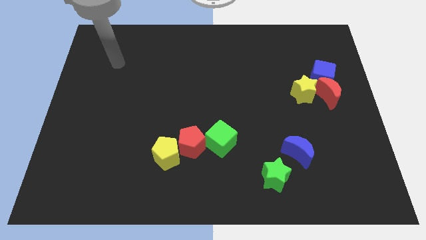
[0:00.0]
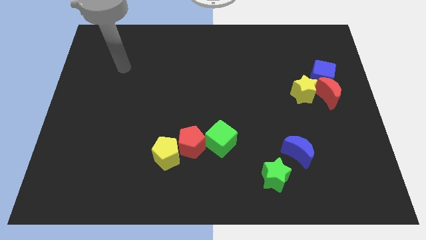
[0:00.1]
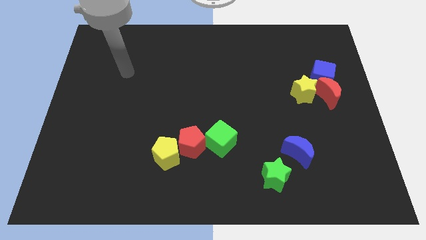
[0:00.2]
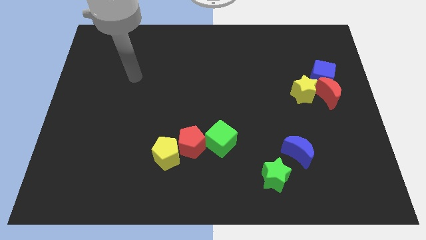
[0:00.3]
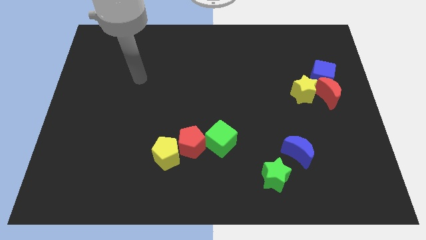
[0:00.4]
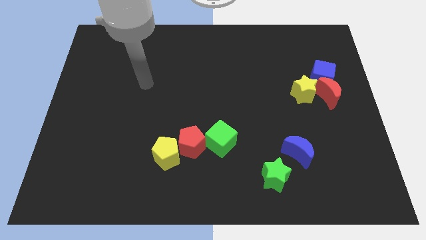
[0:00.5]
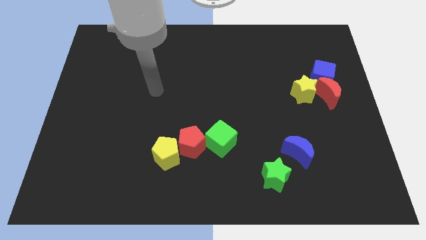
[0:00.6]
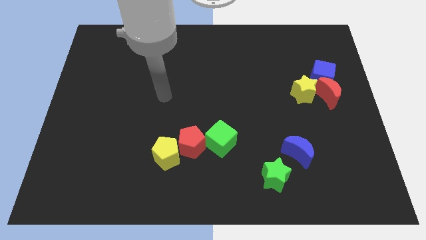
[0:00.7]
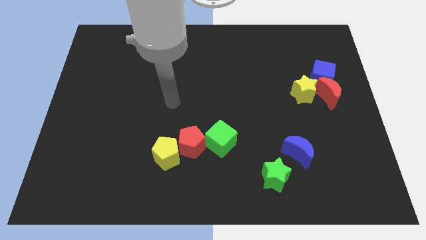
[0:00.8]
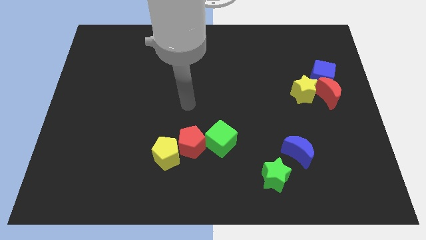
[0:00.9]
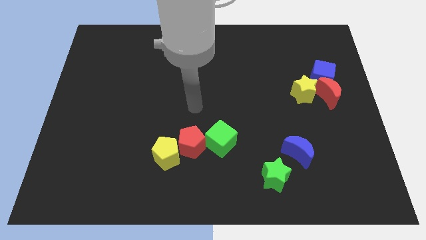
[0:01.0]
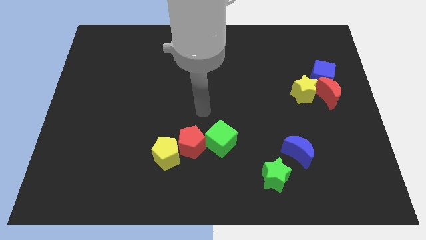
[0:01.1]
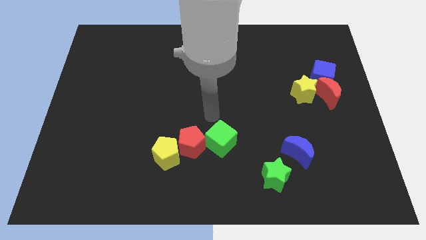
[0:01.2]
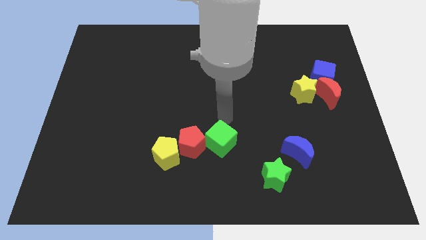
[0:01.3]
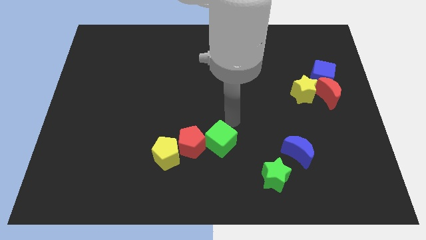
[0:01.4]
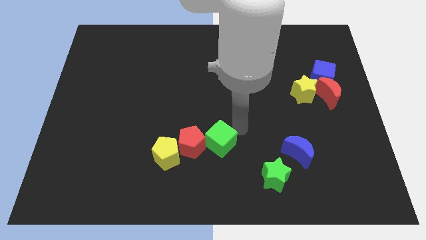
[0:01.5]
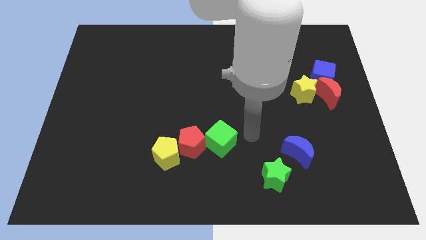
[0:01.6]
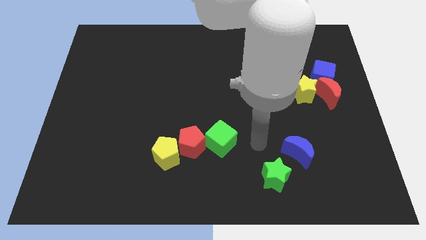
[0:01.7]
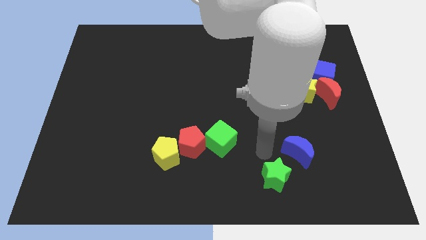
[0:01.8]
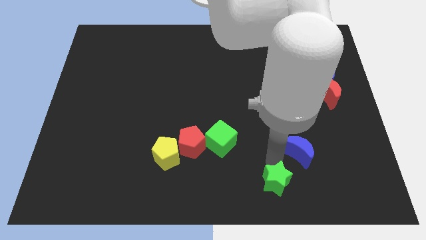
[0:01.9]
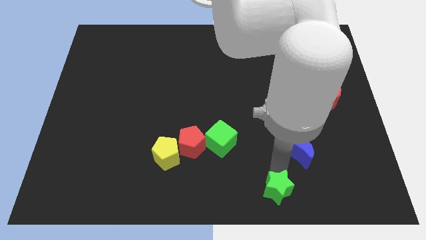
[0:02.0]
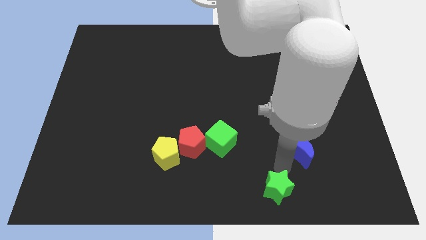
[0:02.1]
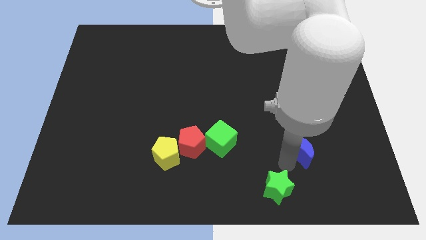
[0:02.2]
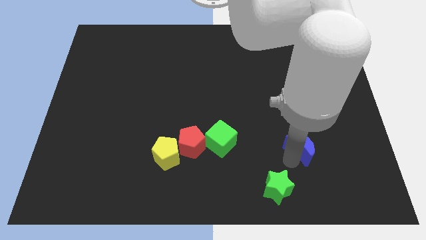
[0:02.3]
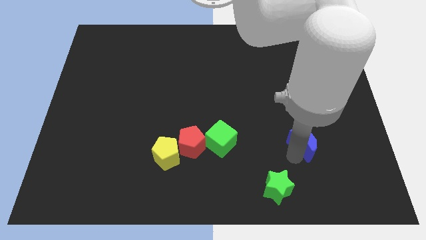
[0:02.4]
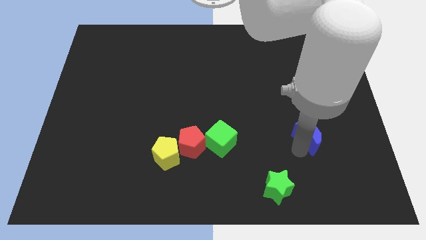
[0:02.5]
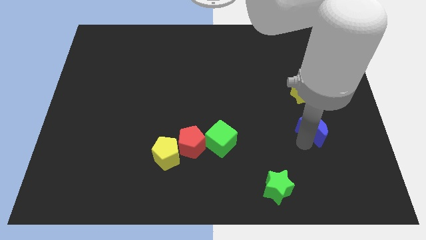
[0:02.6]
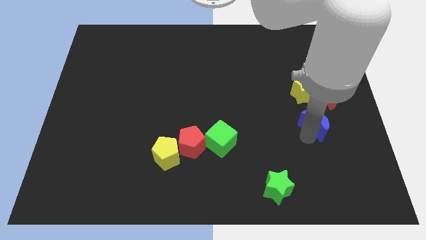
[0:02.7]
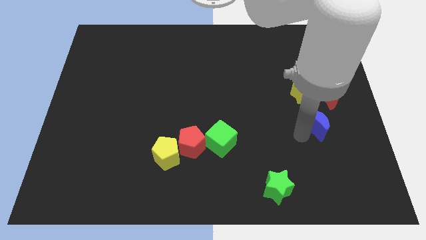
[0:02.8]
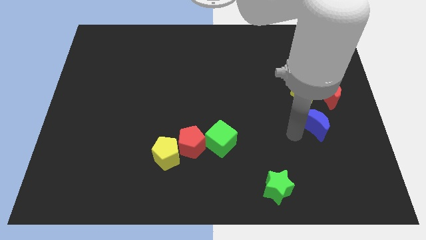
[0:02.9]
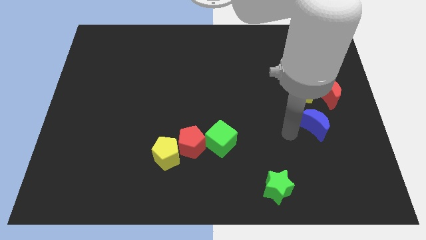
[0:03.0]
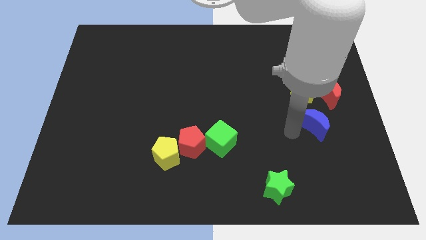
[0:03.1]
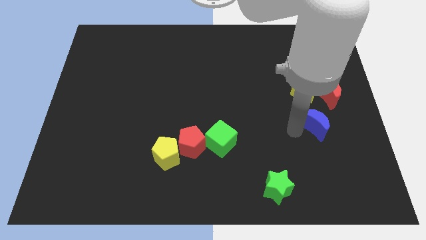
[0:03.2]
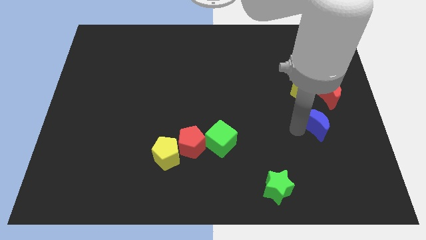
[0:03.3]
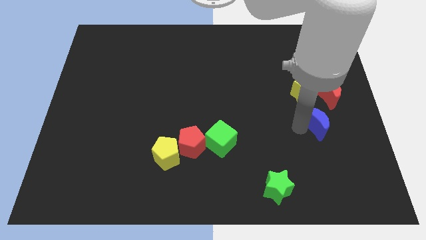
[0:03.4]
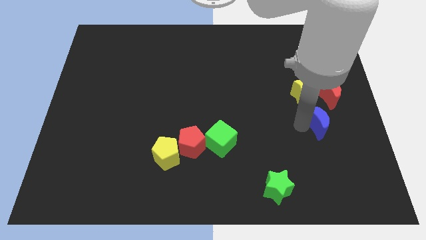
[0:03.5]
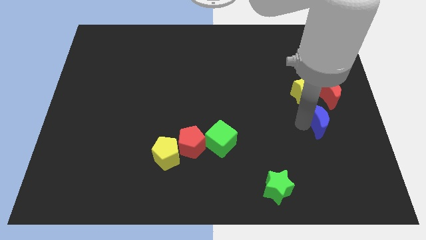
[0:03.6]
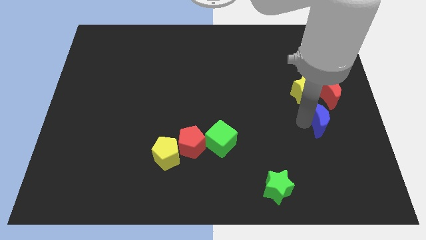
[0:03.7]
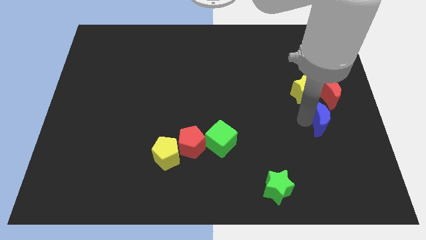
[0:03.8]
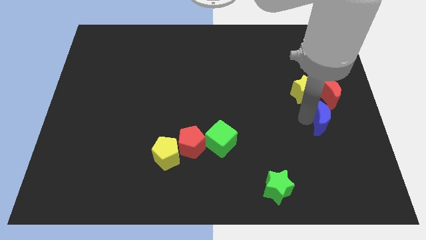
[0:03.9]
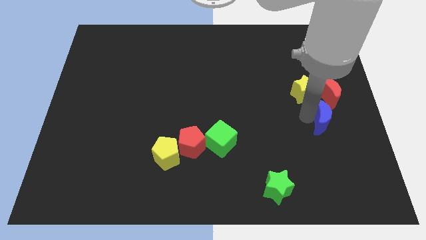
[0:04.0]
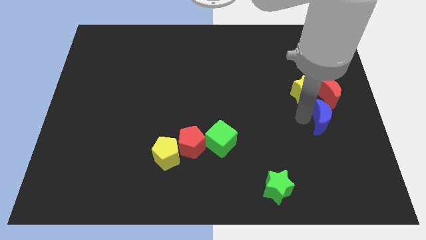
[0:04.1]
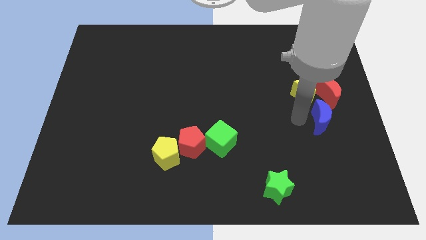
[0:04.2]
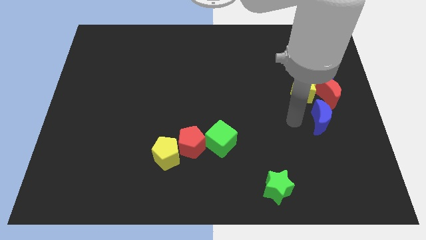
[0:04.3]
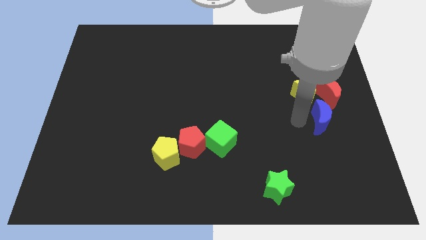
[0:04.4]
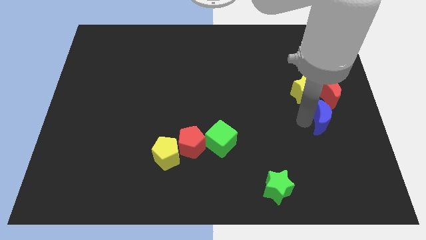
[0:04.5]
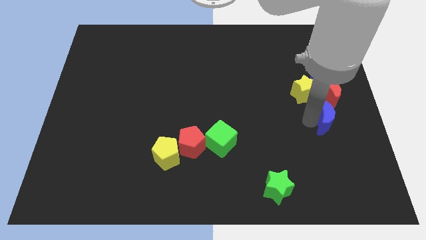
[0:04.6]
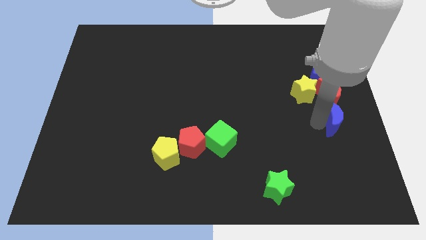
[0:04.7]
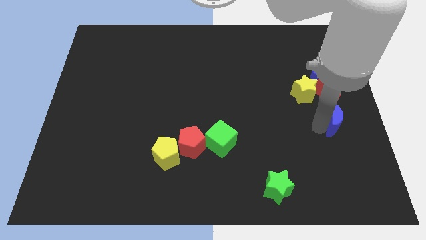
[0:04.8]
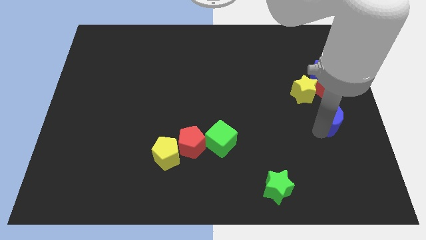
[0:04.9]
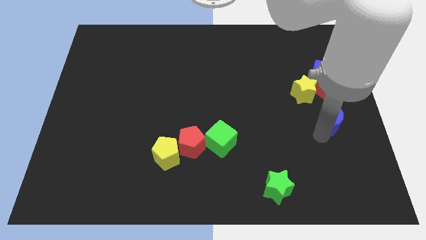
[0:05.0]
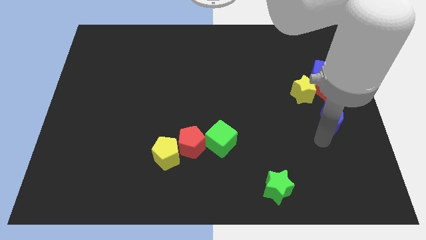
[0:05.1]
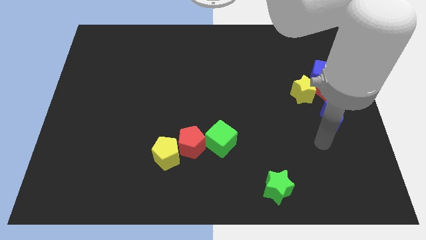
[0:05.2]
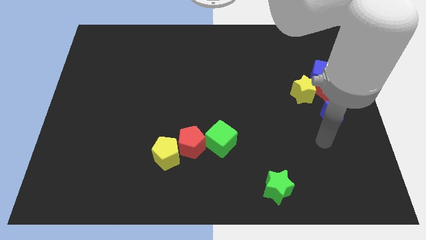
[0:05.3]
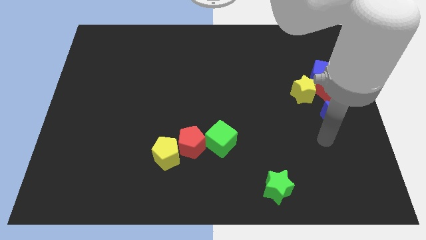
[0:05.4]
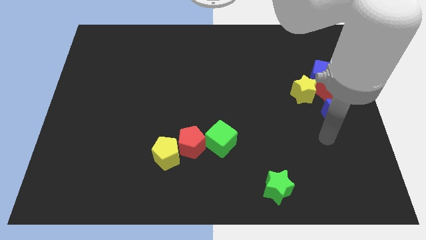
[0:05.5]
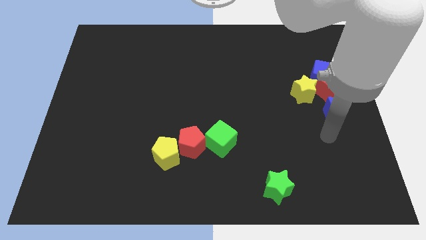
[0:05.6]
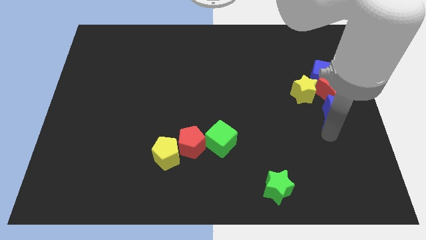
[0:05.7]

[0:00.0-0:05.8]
move the blue moon close to the red moon

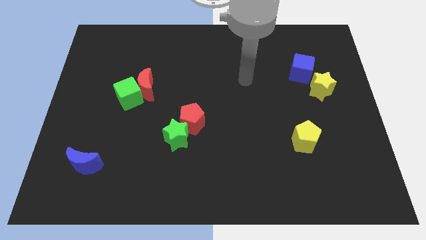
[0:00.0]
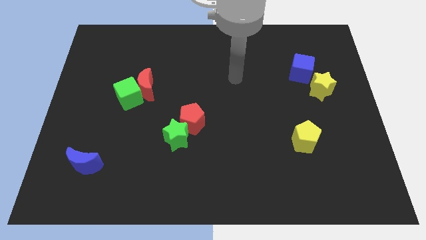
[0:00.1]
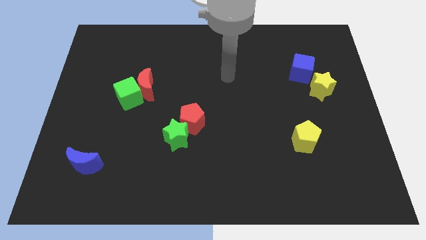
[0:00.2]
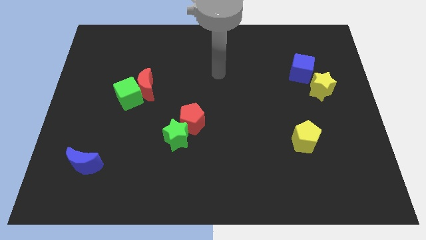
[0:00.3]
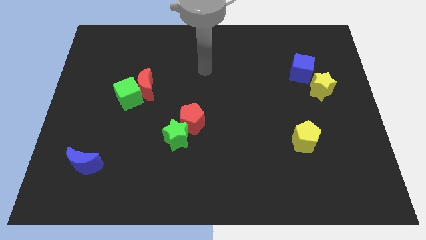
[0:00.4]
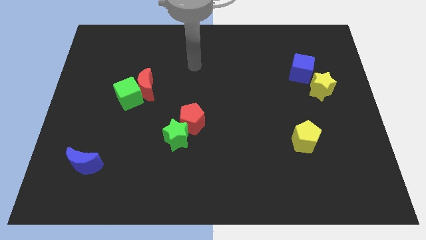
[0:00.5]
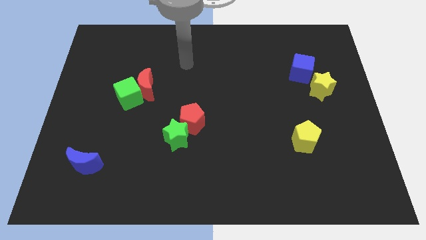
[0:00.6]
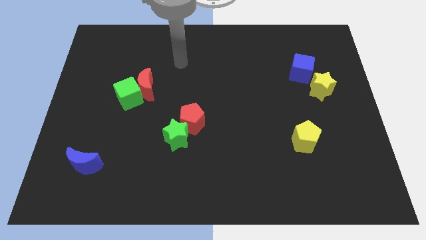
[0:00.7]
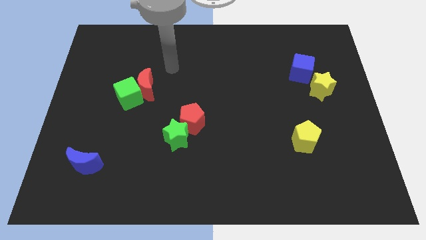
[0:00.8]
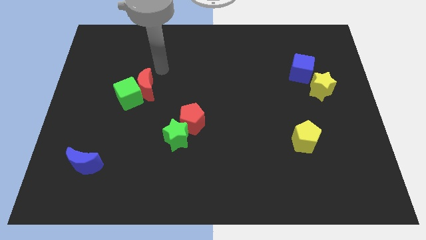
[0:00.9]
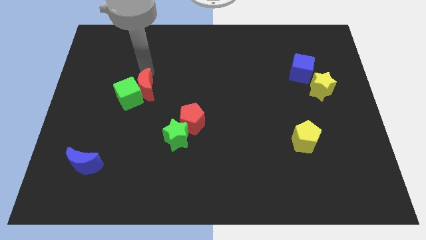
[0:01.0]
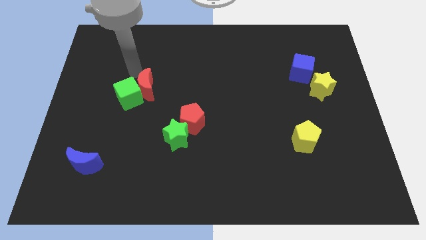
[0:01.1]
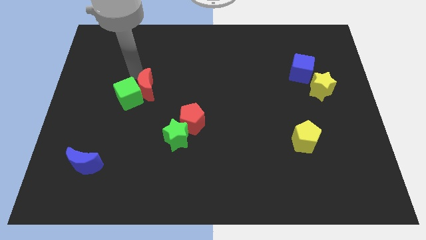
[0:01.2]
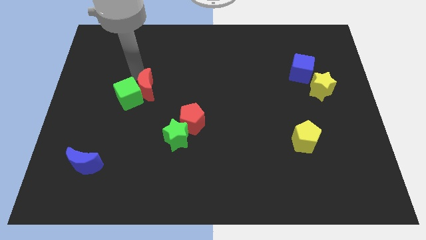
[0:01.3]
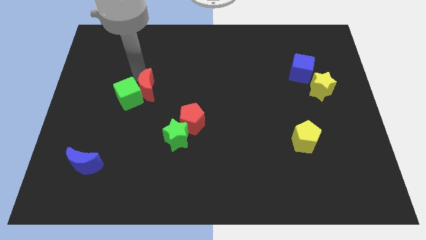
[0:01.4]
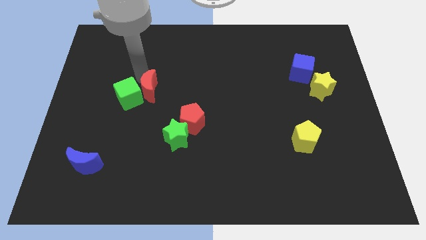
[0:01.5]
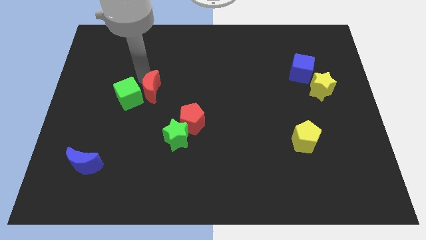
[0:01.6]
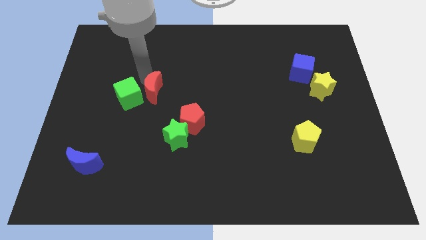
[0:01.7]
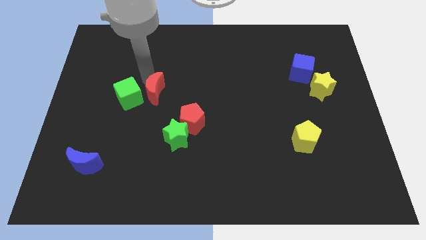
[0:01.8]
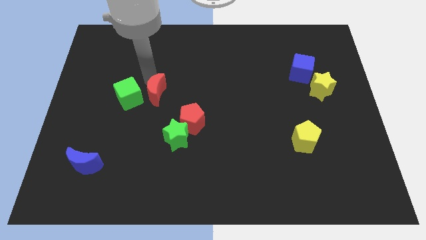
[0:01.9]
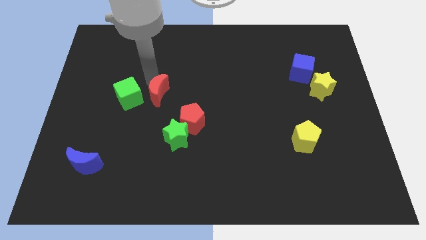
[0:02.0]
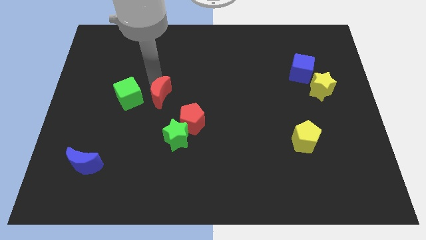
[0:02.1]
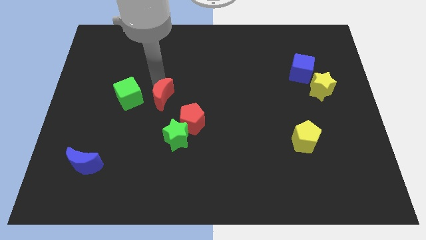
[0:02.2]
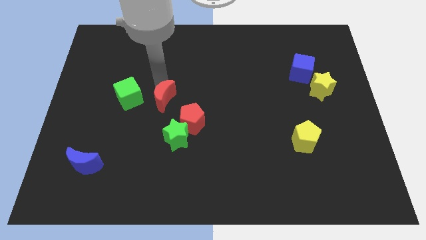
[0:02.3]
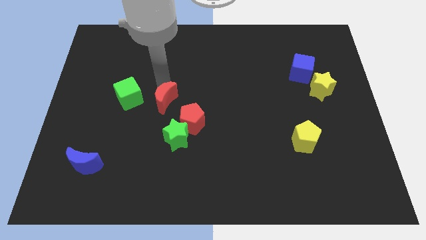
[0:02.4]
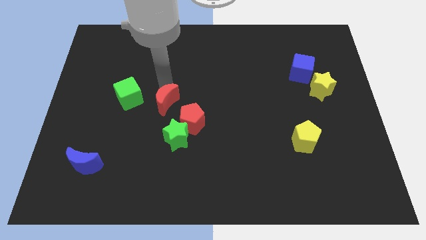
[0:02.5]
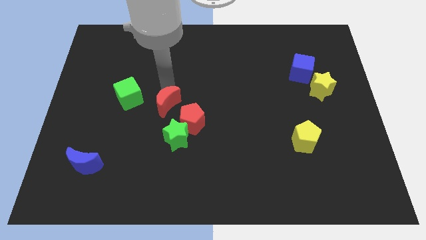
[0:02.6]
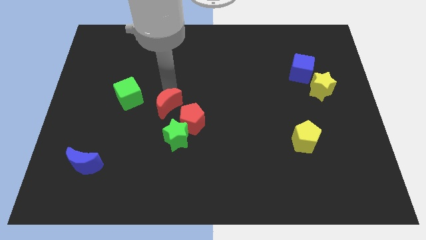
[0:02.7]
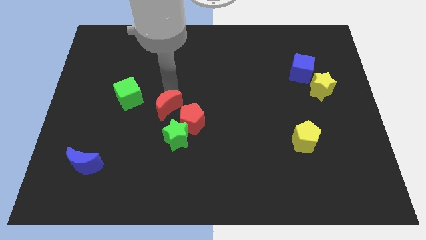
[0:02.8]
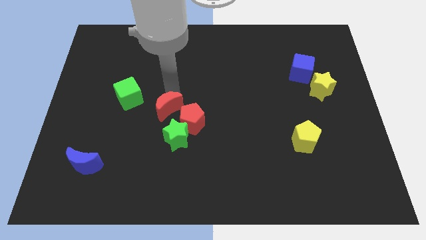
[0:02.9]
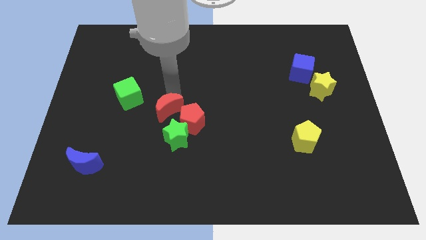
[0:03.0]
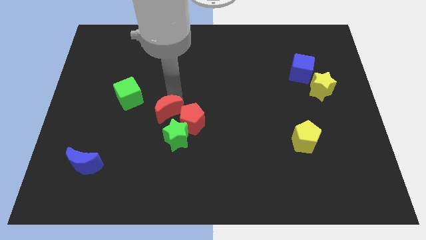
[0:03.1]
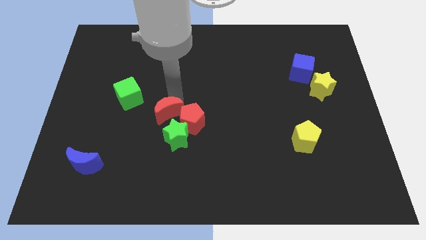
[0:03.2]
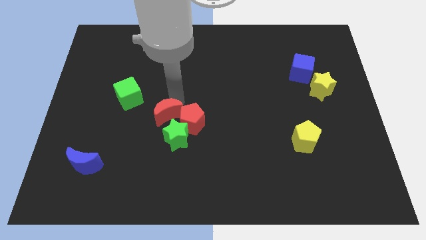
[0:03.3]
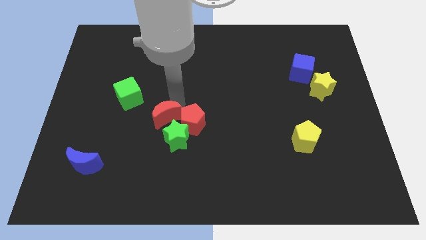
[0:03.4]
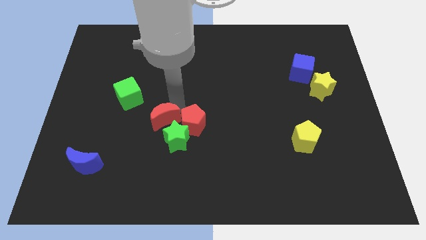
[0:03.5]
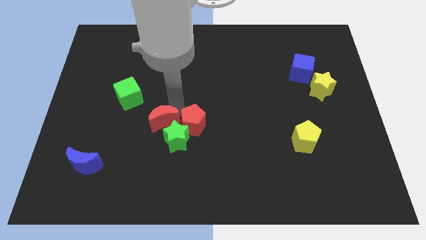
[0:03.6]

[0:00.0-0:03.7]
put the red moon towards the green star
